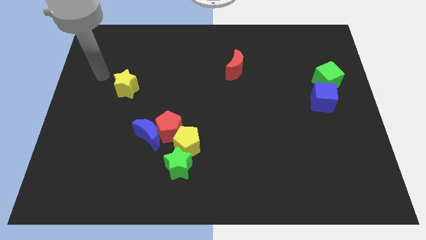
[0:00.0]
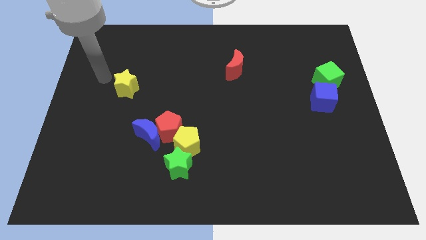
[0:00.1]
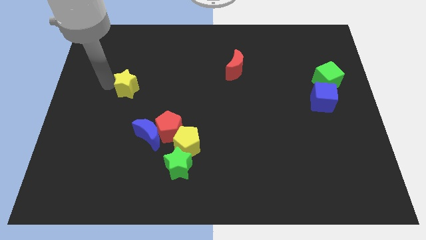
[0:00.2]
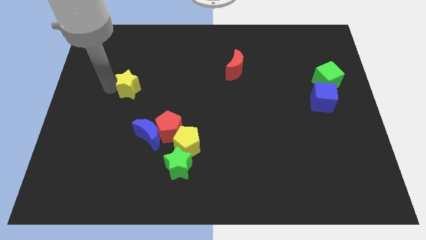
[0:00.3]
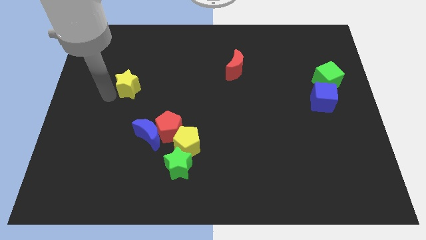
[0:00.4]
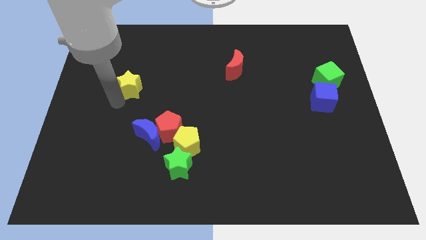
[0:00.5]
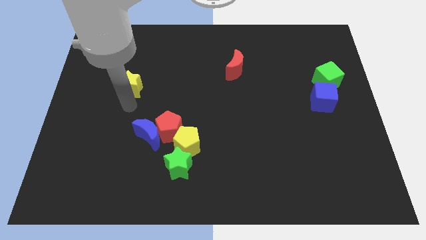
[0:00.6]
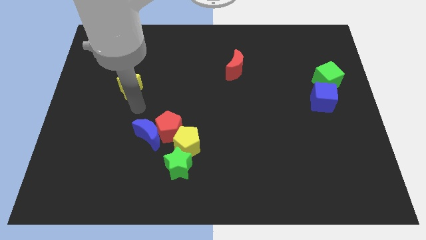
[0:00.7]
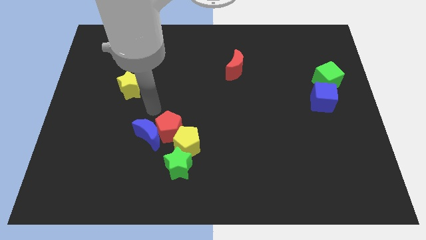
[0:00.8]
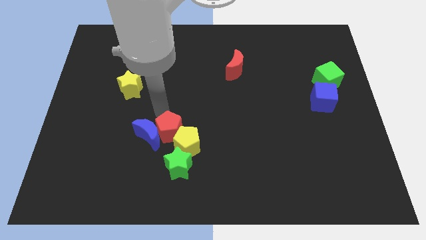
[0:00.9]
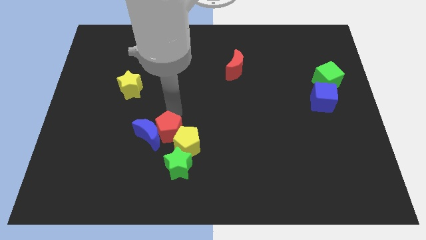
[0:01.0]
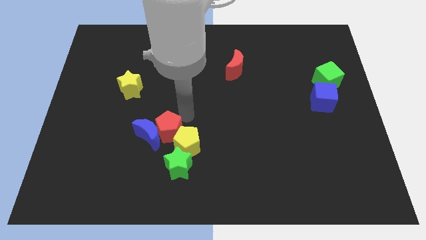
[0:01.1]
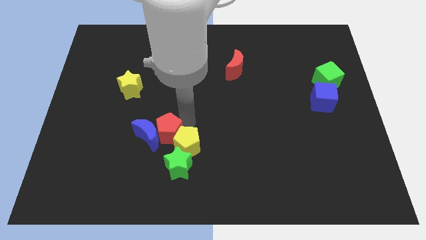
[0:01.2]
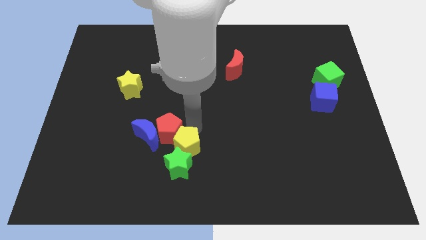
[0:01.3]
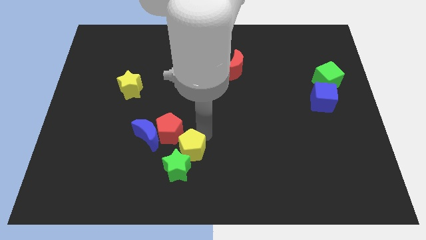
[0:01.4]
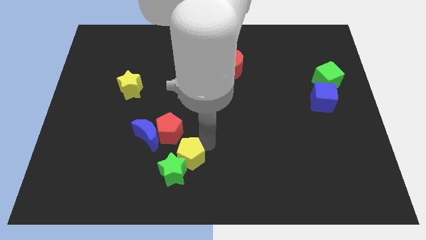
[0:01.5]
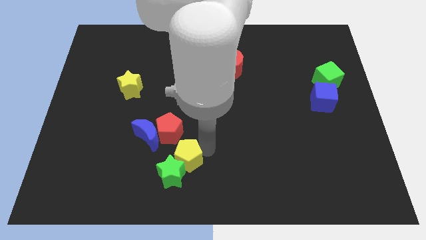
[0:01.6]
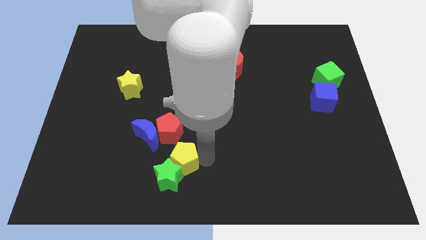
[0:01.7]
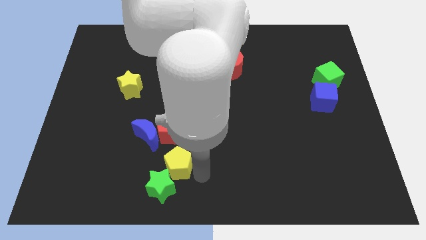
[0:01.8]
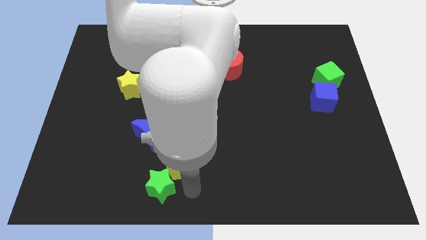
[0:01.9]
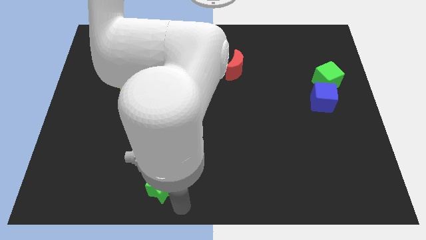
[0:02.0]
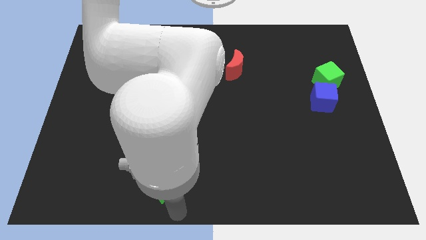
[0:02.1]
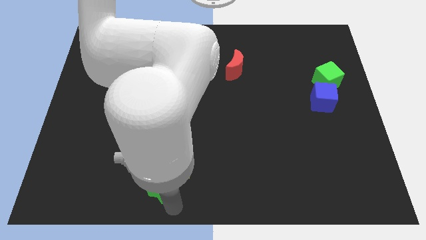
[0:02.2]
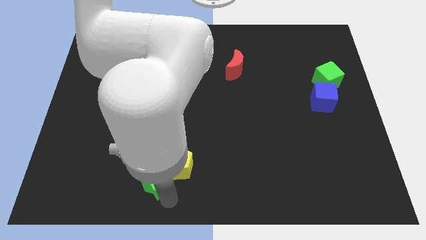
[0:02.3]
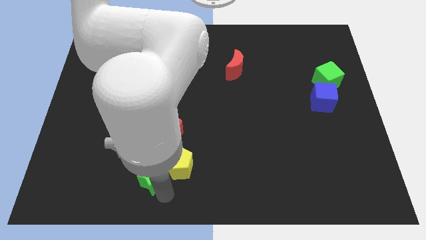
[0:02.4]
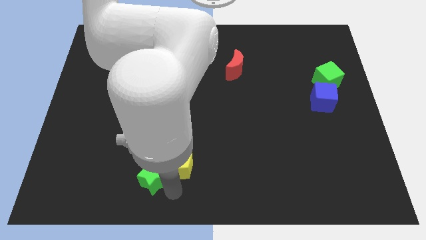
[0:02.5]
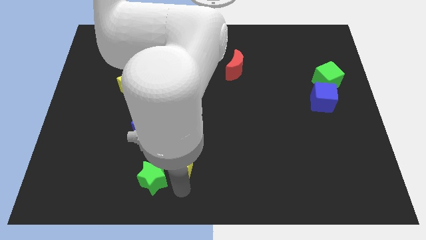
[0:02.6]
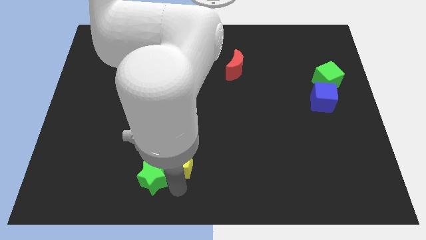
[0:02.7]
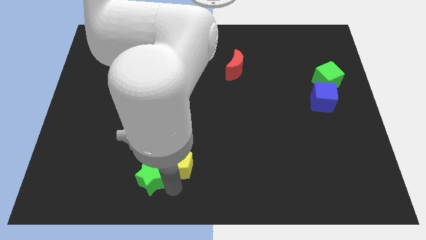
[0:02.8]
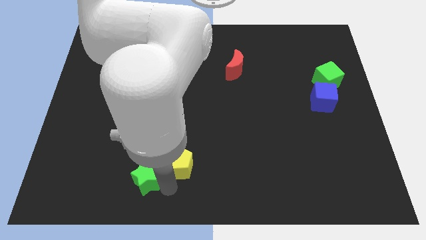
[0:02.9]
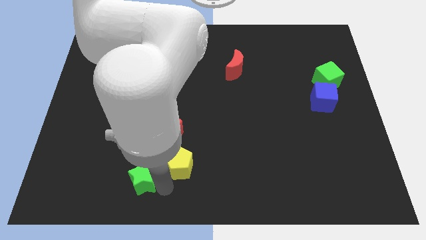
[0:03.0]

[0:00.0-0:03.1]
slide the green star left somewhat

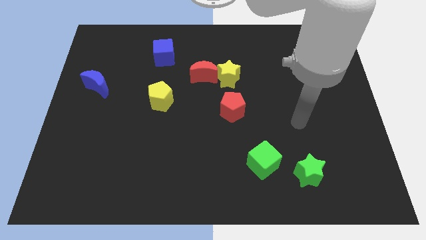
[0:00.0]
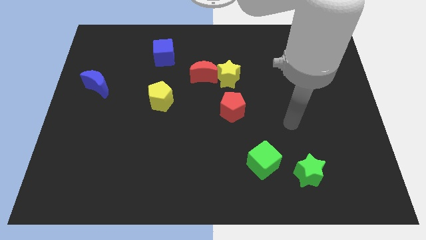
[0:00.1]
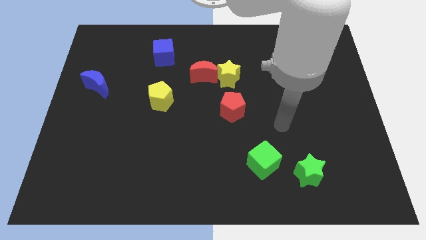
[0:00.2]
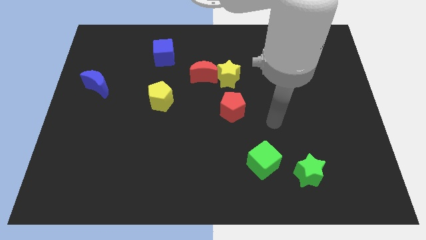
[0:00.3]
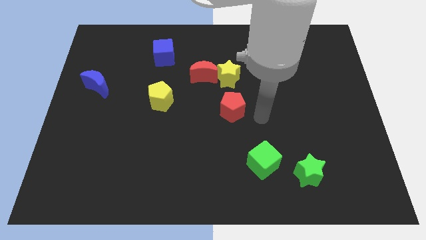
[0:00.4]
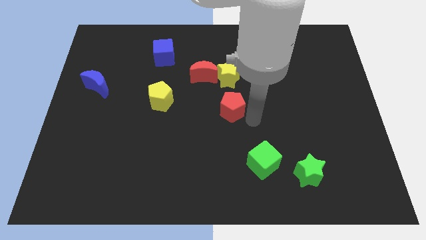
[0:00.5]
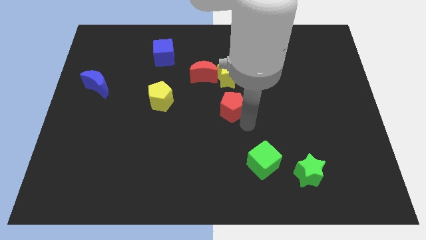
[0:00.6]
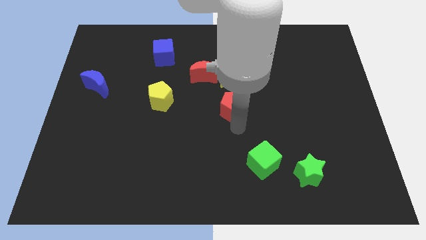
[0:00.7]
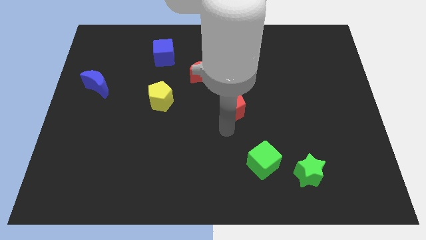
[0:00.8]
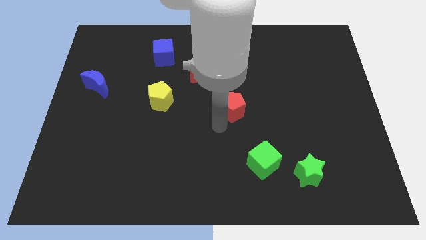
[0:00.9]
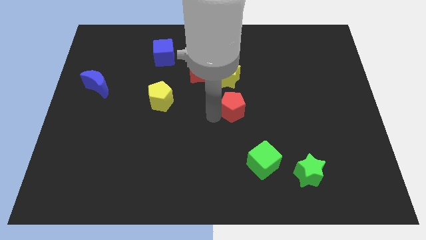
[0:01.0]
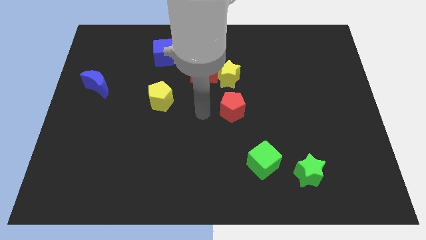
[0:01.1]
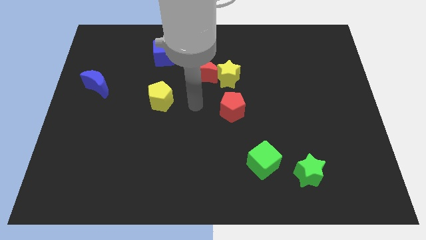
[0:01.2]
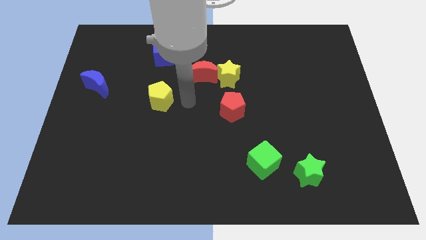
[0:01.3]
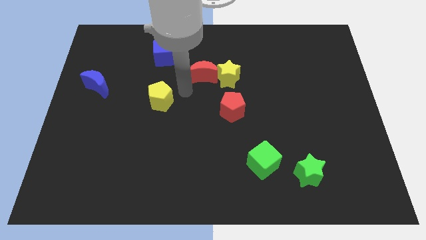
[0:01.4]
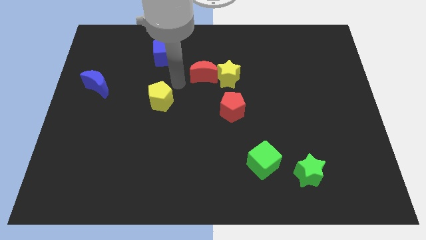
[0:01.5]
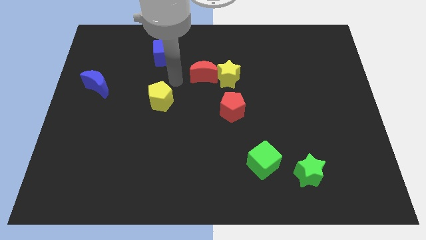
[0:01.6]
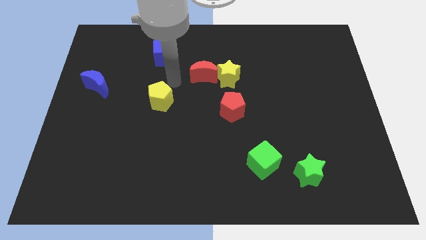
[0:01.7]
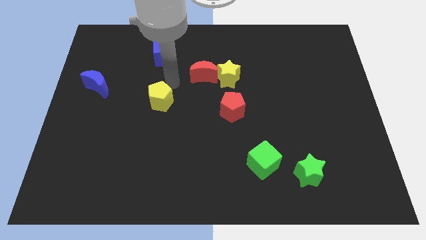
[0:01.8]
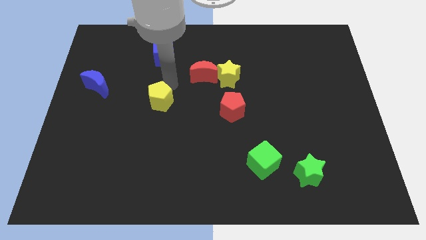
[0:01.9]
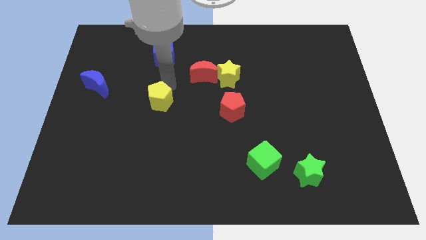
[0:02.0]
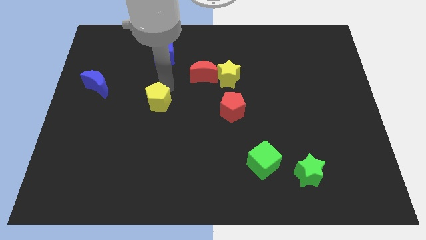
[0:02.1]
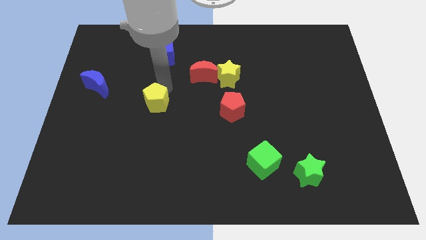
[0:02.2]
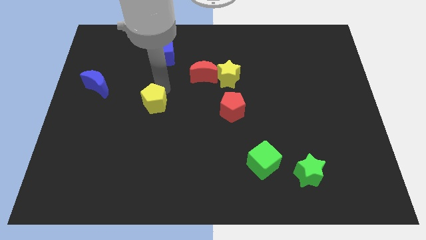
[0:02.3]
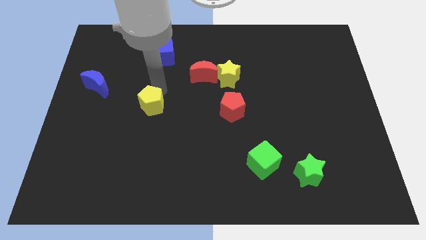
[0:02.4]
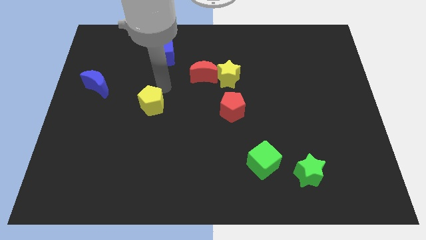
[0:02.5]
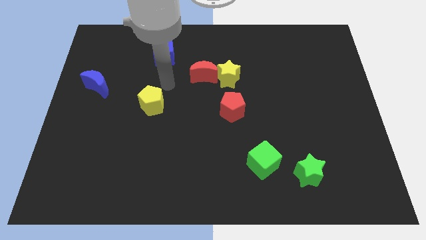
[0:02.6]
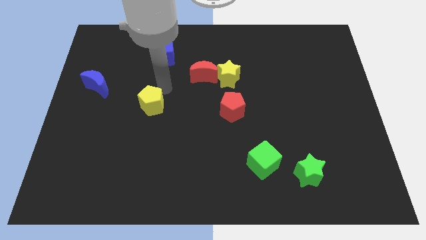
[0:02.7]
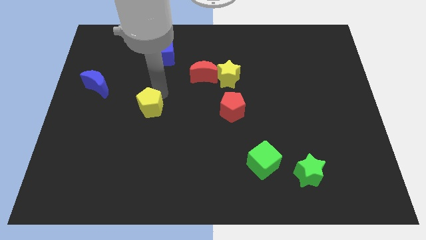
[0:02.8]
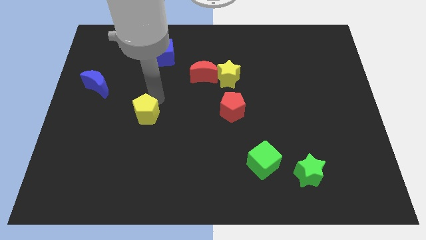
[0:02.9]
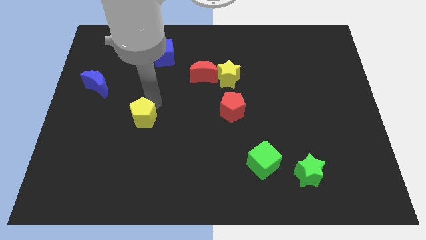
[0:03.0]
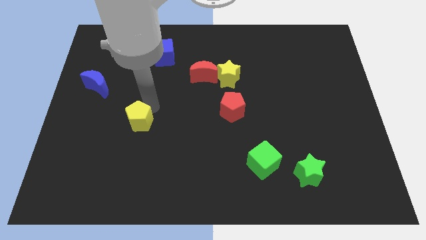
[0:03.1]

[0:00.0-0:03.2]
push the yellow pentagon down and left diagonally a little

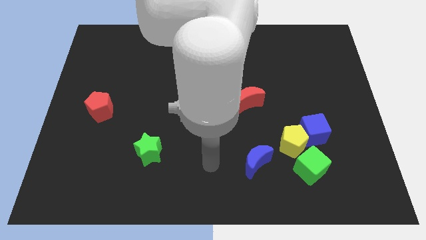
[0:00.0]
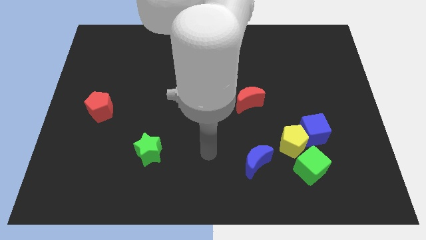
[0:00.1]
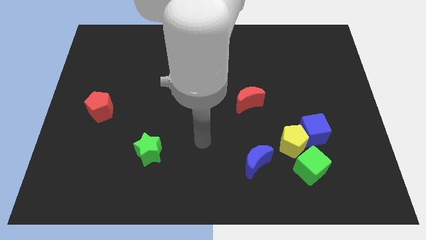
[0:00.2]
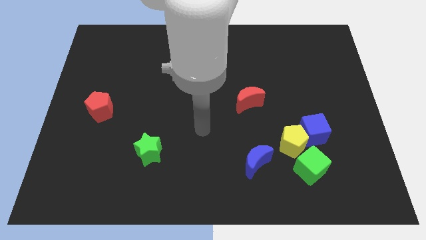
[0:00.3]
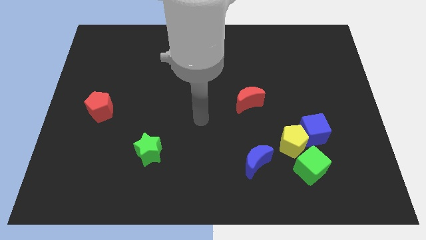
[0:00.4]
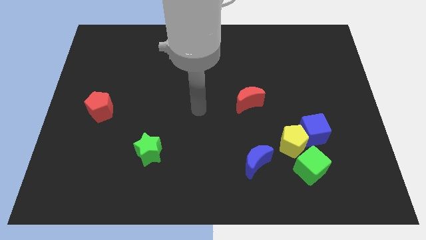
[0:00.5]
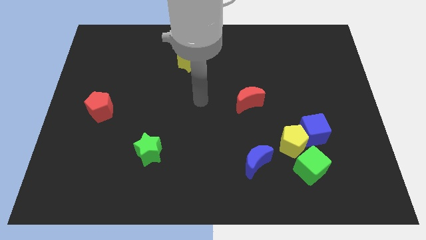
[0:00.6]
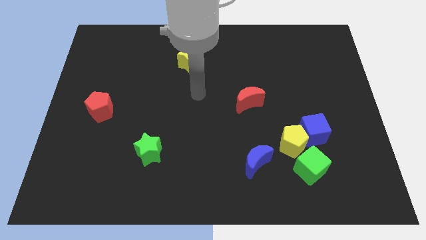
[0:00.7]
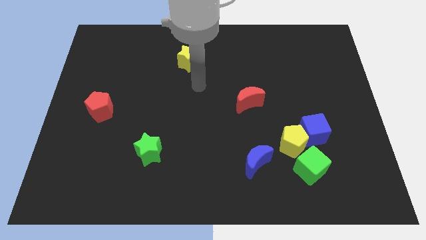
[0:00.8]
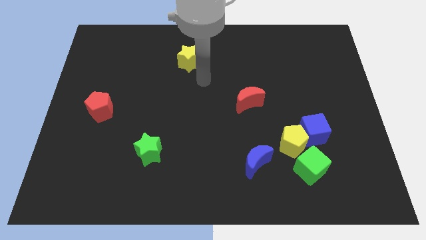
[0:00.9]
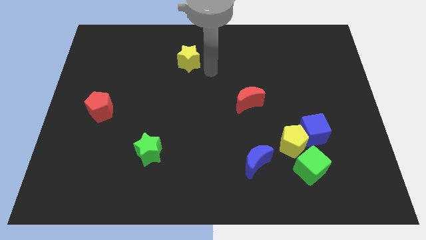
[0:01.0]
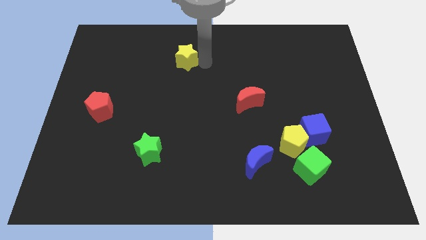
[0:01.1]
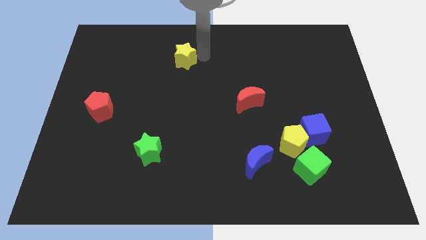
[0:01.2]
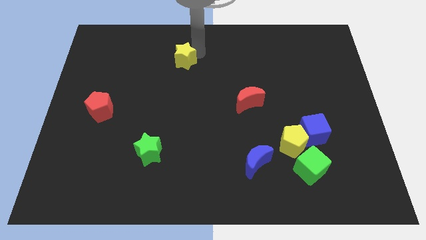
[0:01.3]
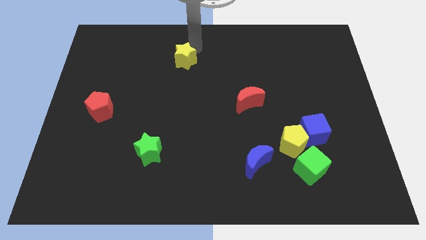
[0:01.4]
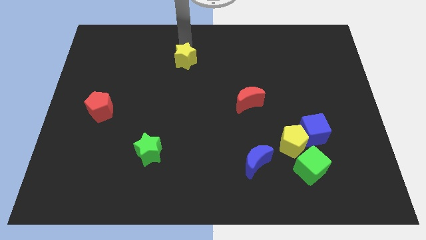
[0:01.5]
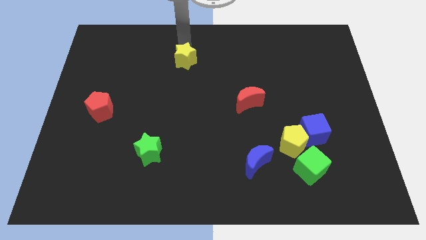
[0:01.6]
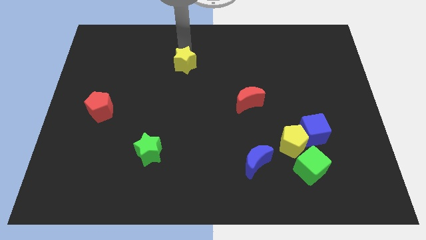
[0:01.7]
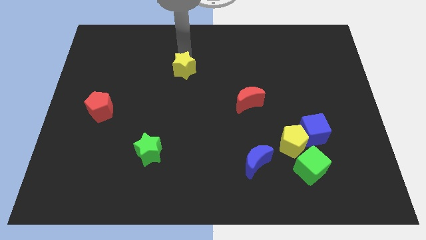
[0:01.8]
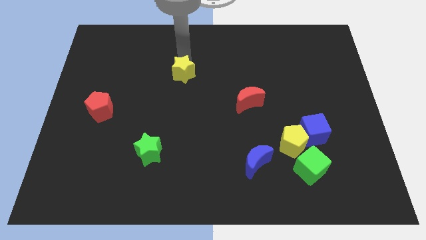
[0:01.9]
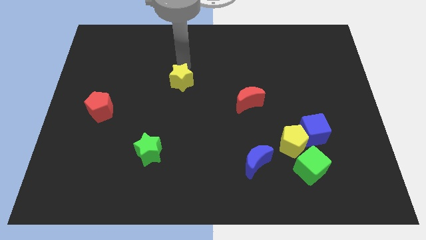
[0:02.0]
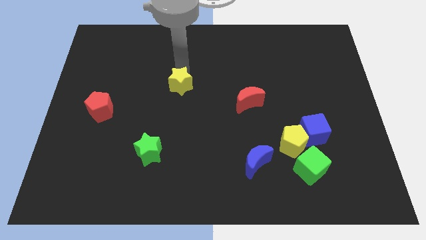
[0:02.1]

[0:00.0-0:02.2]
slightly move the yellow star down
